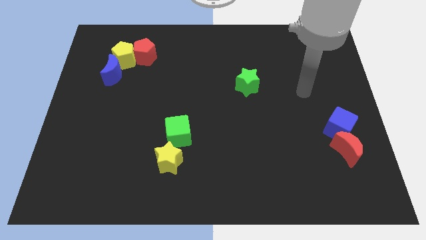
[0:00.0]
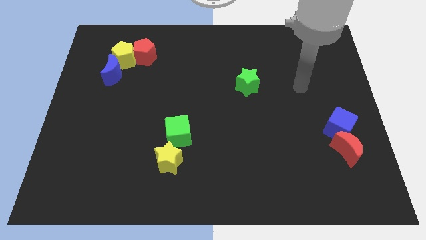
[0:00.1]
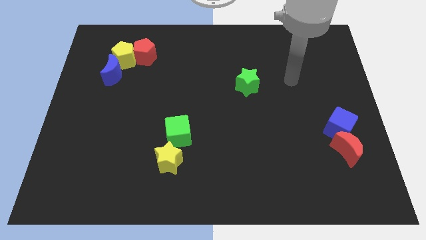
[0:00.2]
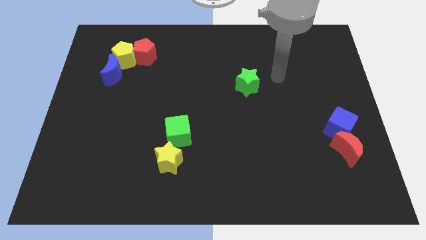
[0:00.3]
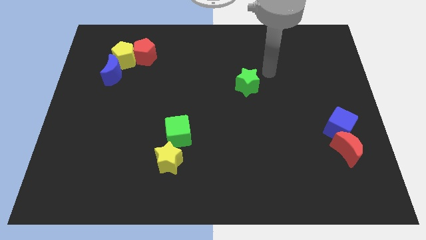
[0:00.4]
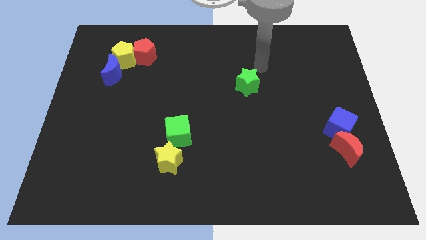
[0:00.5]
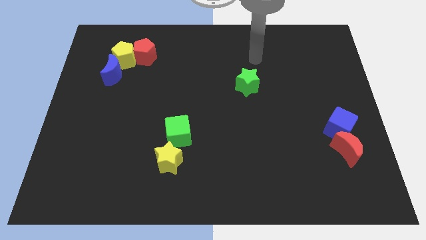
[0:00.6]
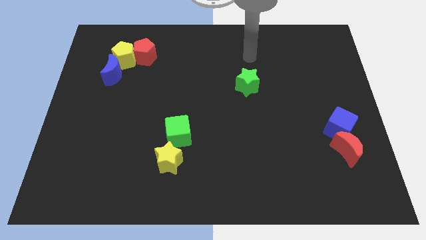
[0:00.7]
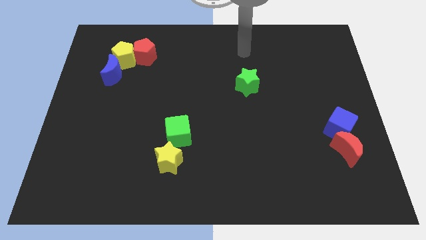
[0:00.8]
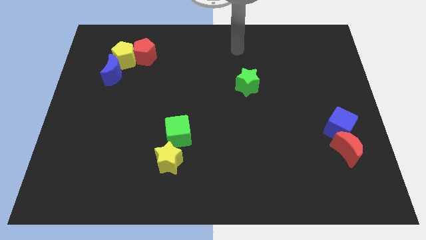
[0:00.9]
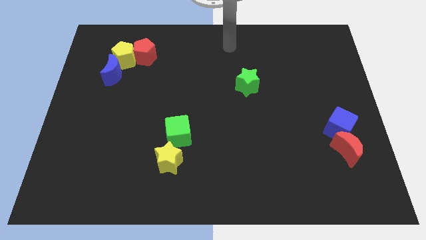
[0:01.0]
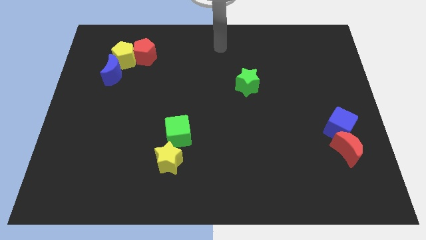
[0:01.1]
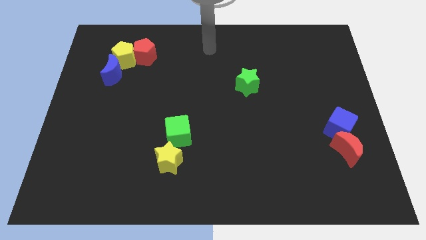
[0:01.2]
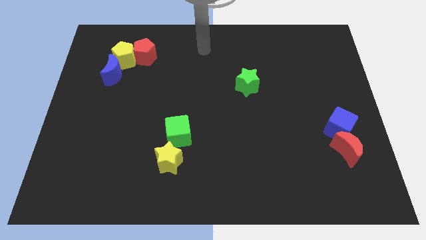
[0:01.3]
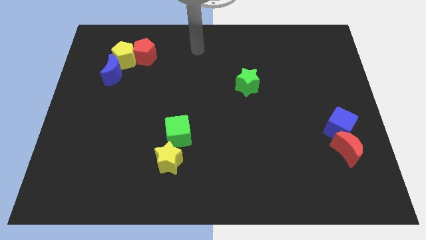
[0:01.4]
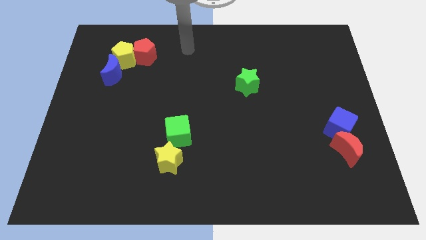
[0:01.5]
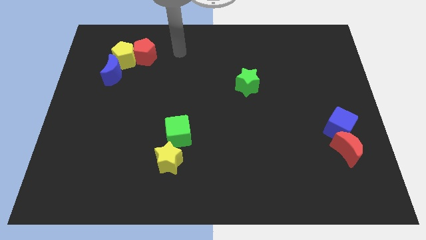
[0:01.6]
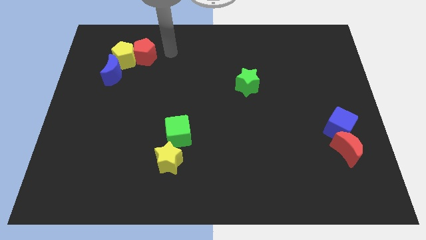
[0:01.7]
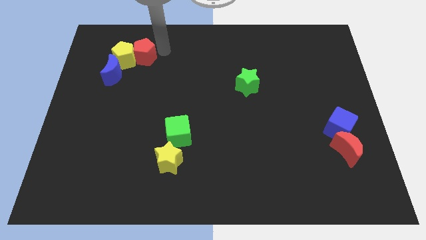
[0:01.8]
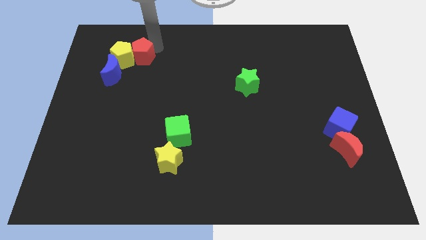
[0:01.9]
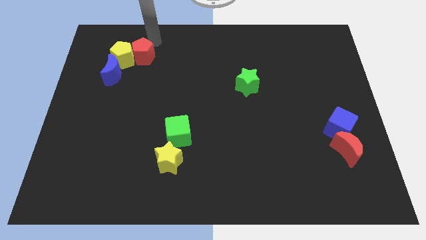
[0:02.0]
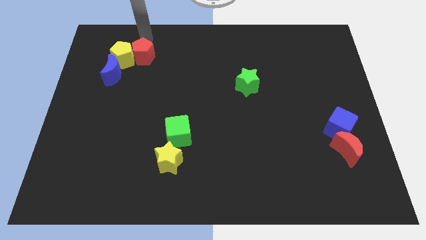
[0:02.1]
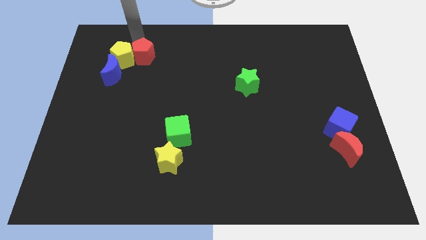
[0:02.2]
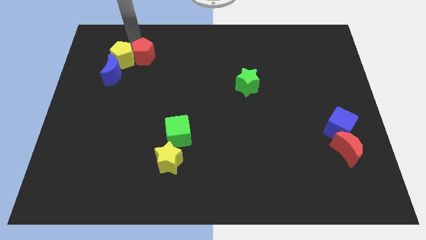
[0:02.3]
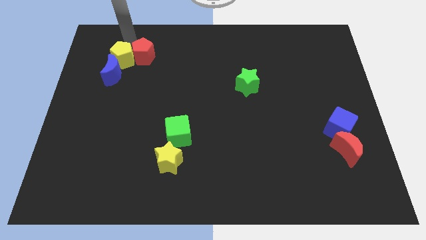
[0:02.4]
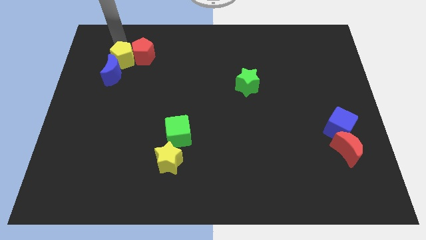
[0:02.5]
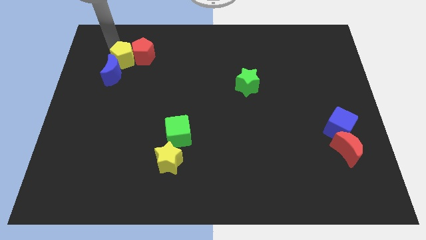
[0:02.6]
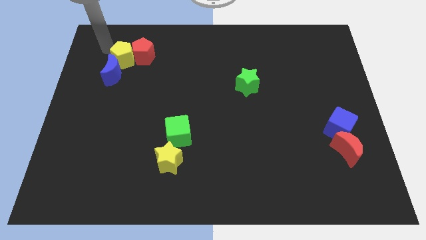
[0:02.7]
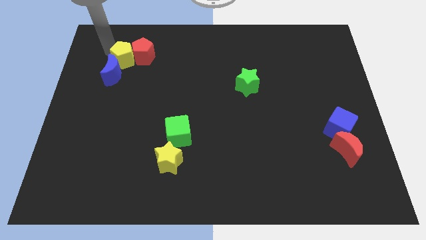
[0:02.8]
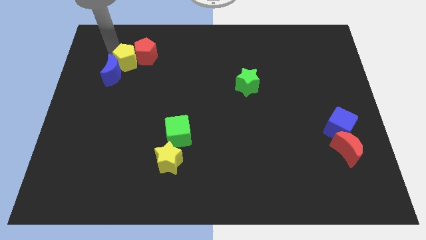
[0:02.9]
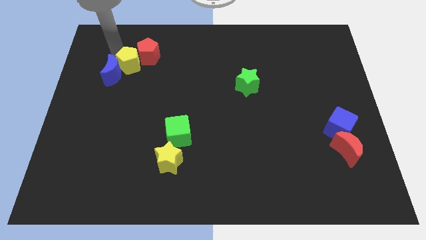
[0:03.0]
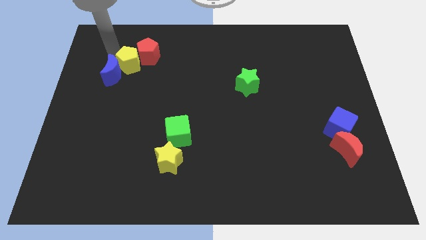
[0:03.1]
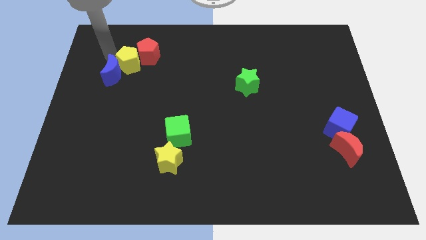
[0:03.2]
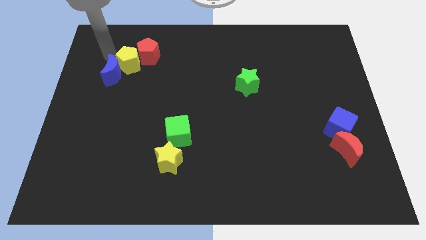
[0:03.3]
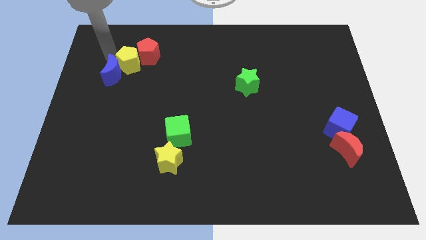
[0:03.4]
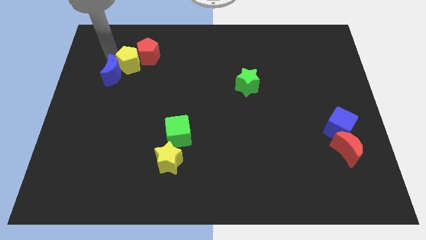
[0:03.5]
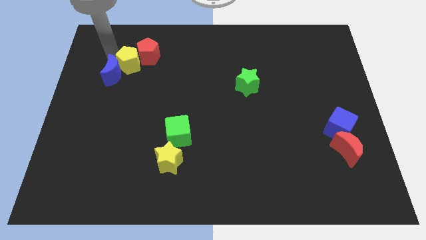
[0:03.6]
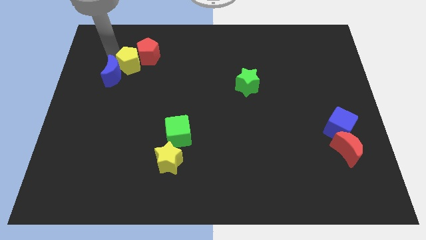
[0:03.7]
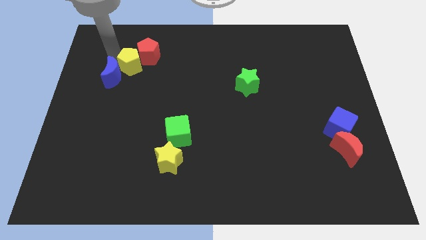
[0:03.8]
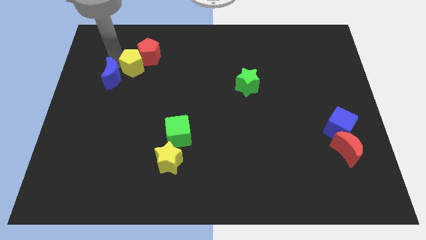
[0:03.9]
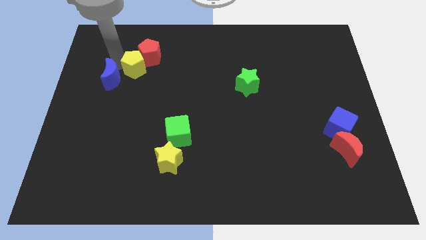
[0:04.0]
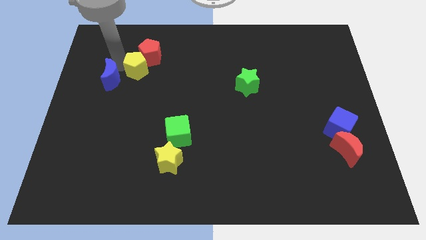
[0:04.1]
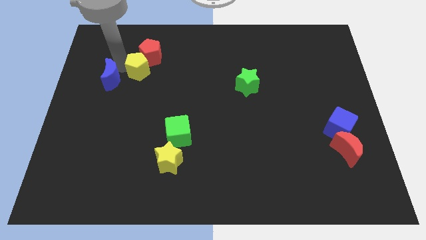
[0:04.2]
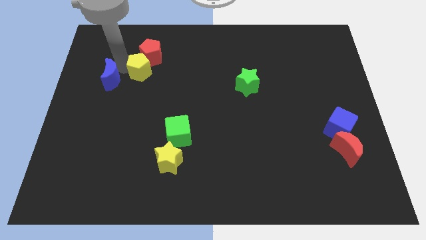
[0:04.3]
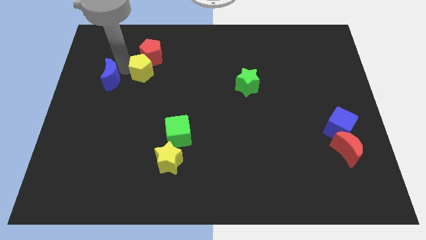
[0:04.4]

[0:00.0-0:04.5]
slightly push the yellow pentagon diagonally downwards and to the right

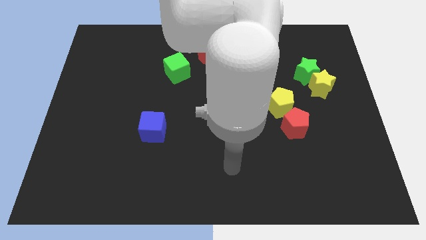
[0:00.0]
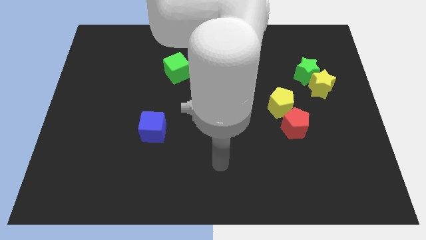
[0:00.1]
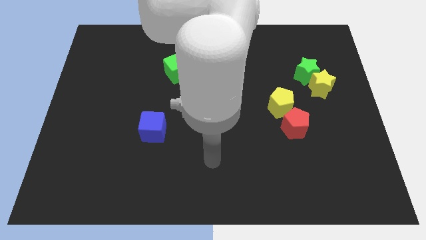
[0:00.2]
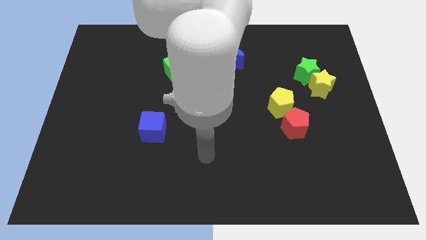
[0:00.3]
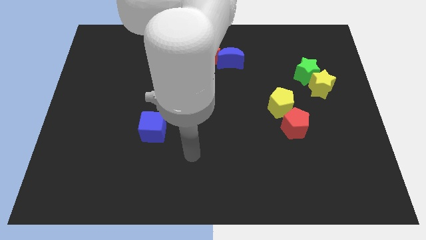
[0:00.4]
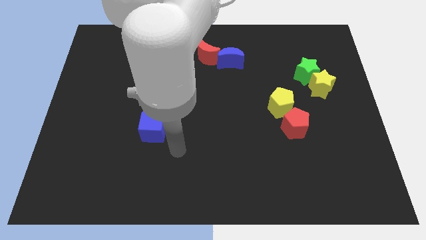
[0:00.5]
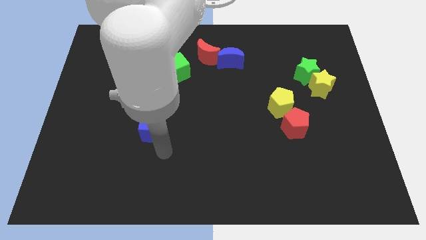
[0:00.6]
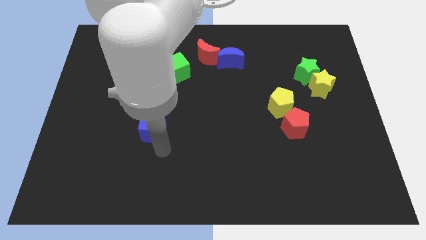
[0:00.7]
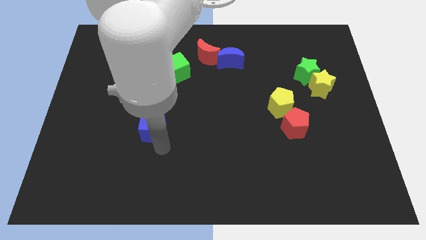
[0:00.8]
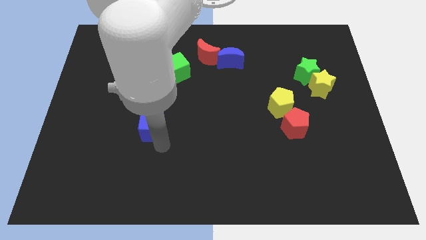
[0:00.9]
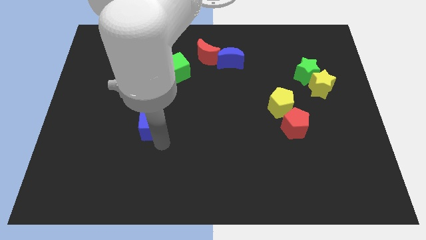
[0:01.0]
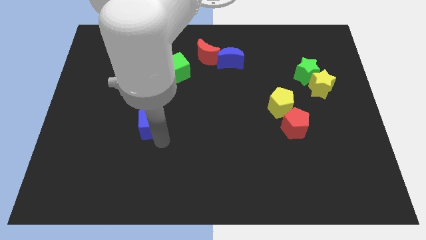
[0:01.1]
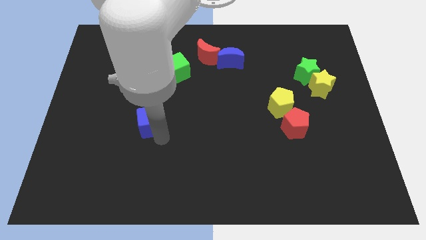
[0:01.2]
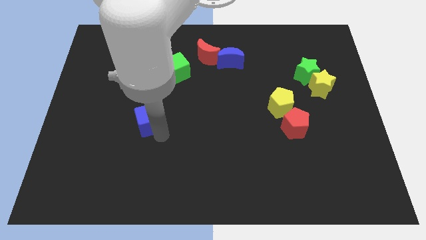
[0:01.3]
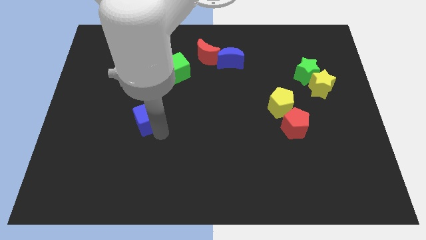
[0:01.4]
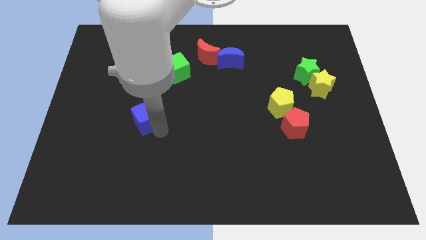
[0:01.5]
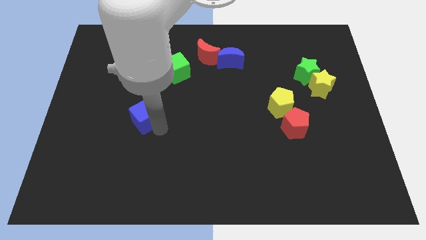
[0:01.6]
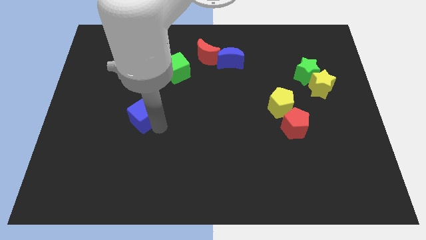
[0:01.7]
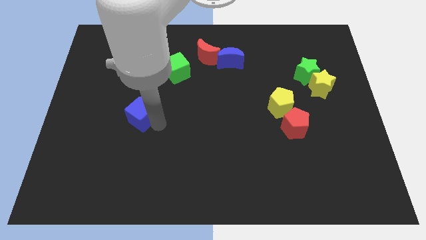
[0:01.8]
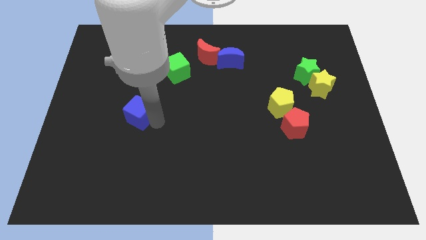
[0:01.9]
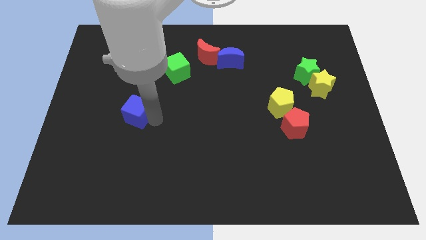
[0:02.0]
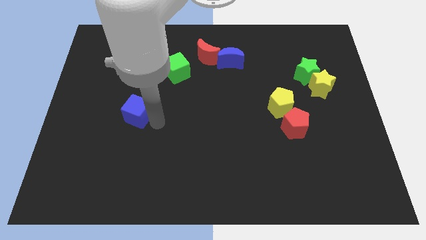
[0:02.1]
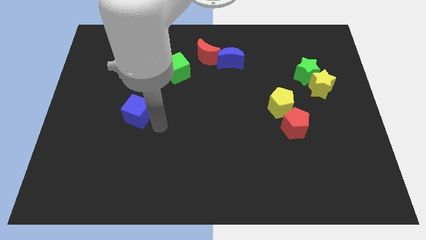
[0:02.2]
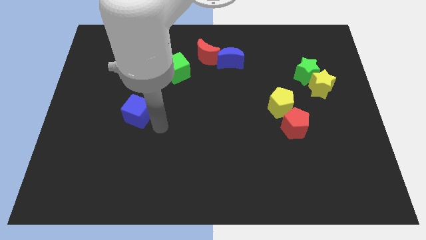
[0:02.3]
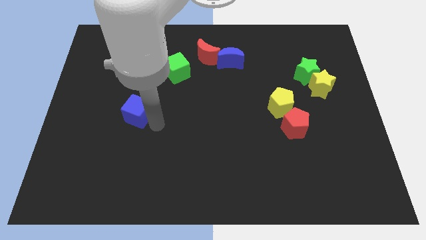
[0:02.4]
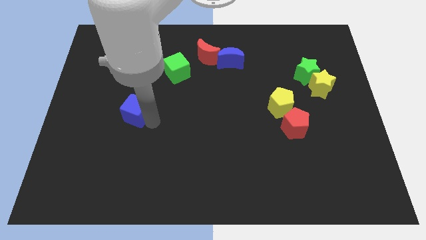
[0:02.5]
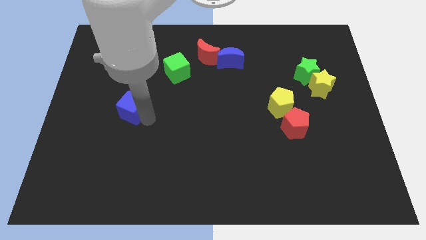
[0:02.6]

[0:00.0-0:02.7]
slightly slide the blue cube diagonally upwards and left

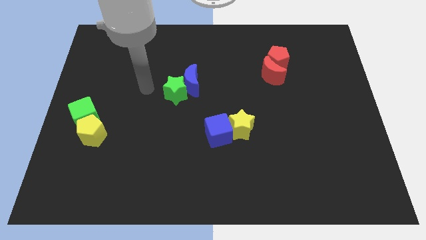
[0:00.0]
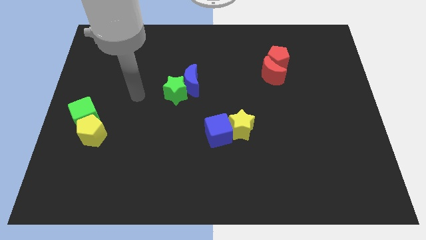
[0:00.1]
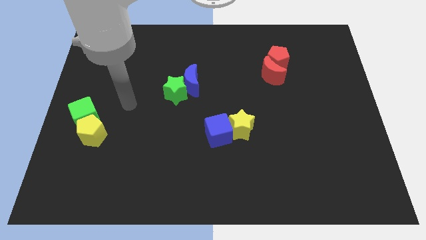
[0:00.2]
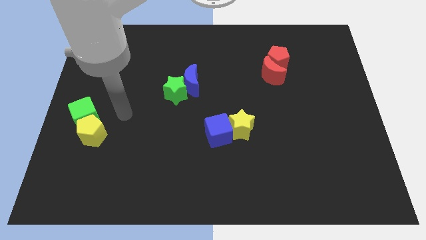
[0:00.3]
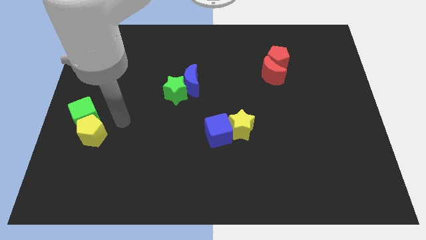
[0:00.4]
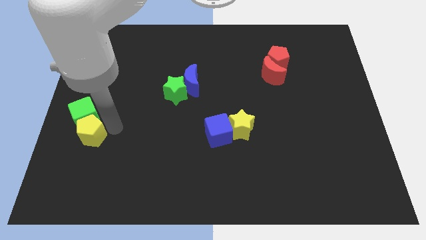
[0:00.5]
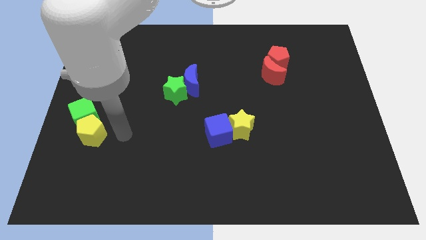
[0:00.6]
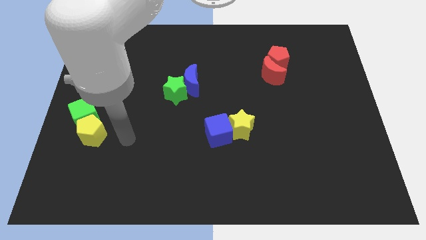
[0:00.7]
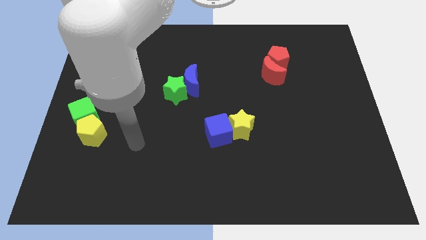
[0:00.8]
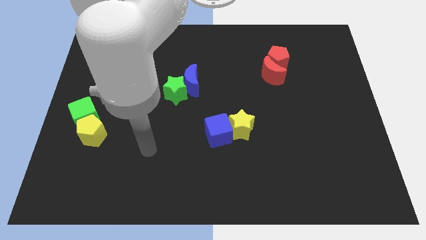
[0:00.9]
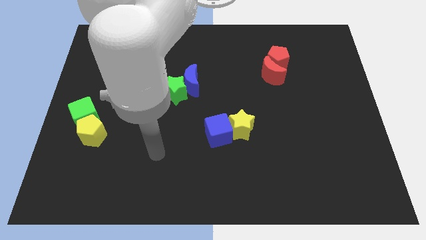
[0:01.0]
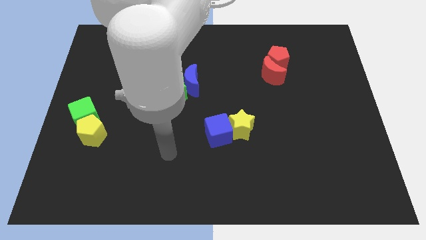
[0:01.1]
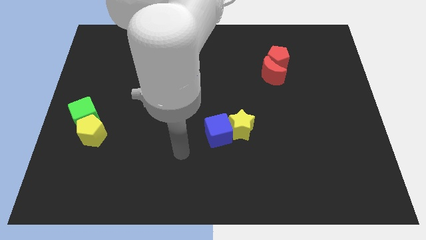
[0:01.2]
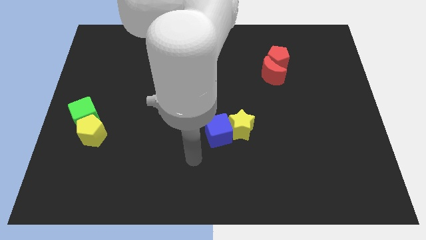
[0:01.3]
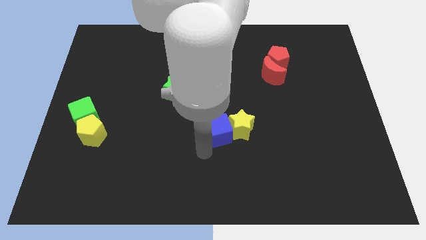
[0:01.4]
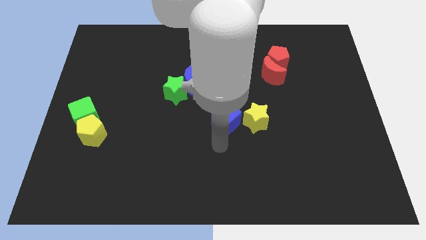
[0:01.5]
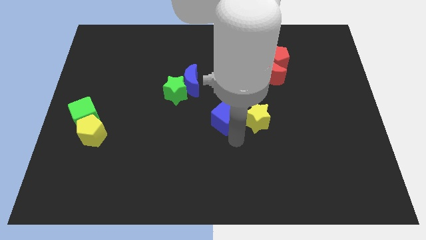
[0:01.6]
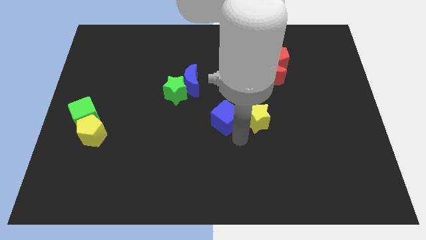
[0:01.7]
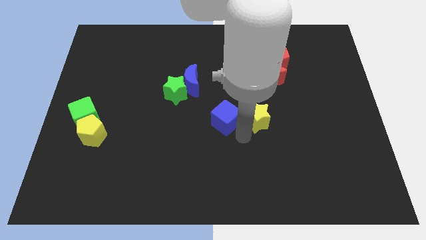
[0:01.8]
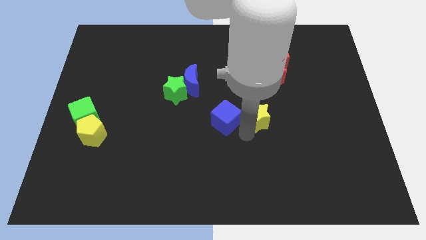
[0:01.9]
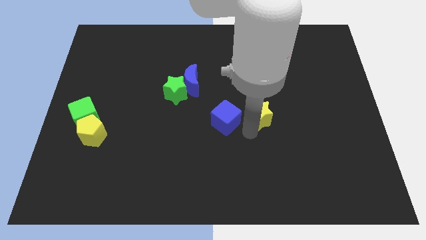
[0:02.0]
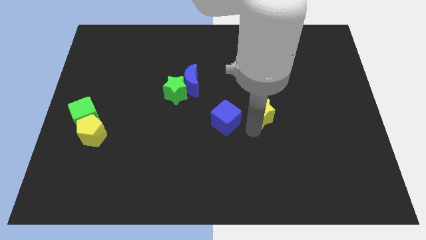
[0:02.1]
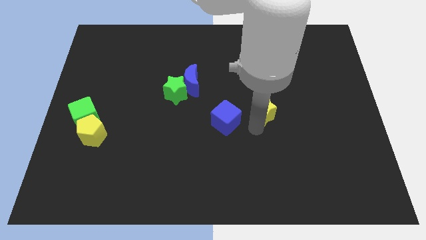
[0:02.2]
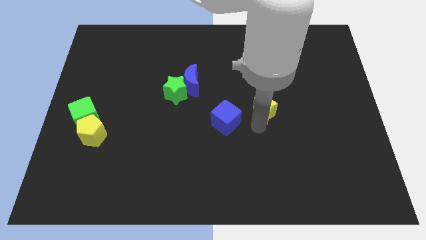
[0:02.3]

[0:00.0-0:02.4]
slide the yellow star upwards and then to the right a little bit
